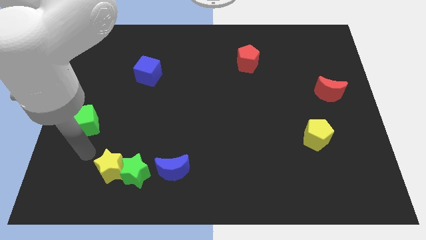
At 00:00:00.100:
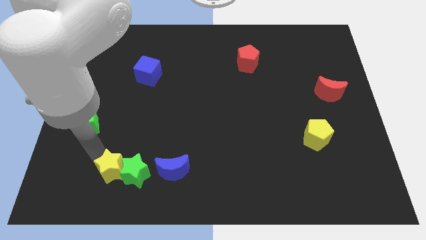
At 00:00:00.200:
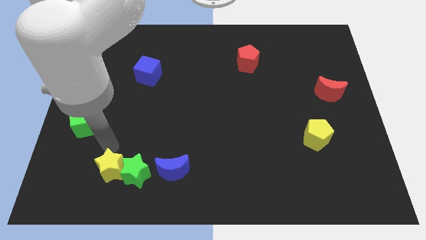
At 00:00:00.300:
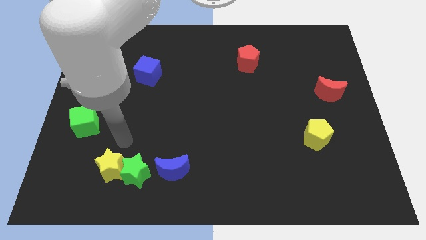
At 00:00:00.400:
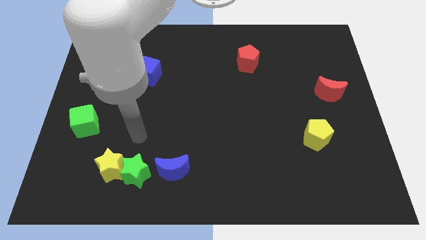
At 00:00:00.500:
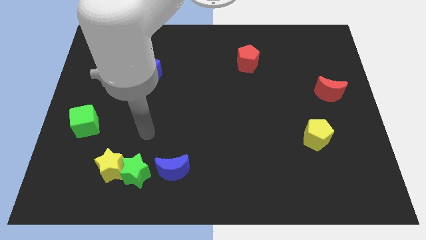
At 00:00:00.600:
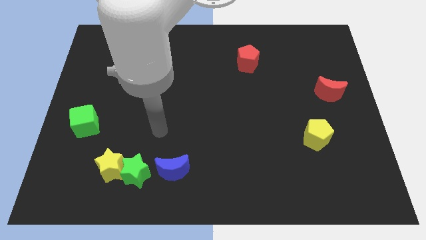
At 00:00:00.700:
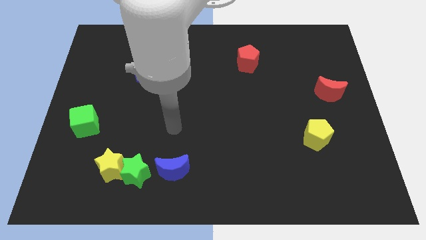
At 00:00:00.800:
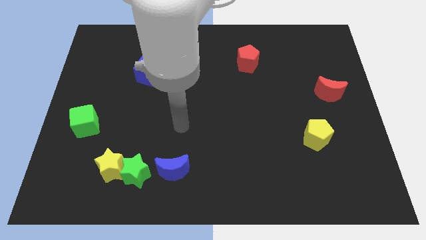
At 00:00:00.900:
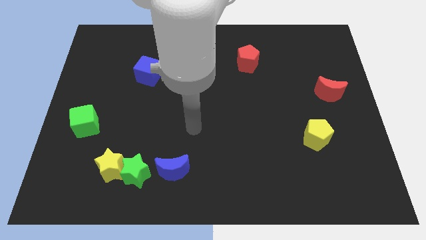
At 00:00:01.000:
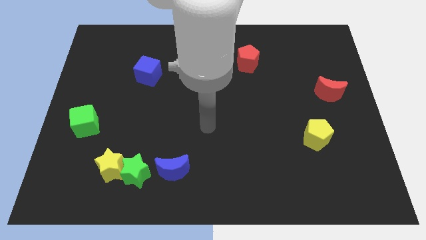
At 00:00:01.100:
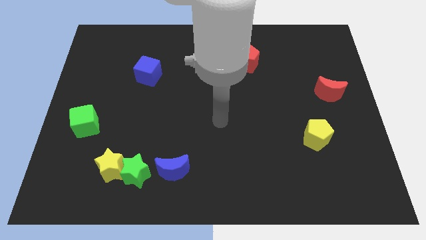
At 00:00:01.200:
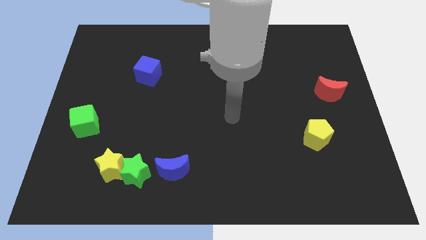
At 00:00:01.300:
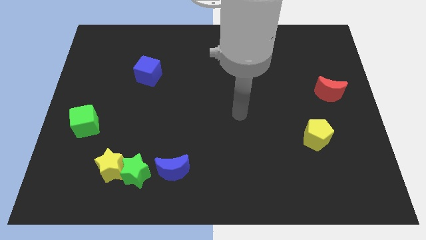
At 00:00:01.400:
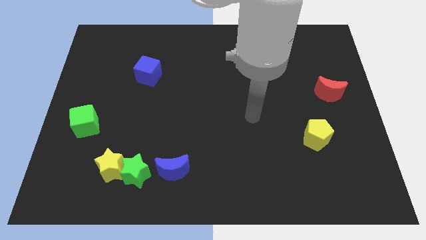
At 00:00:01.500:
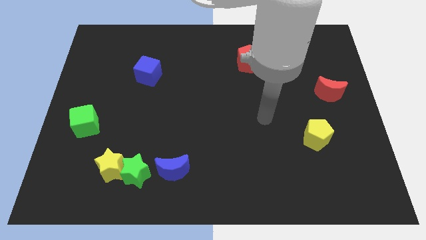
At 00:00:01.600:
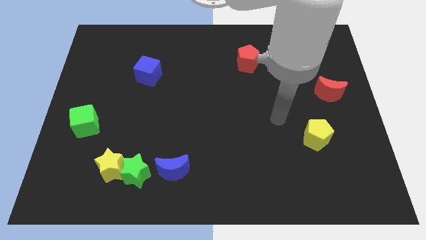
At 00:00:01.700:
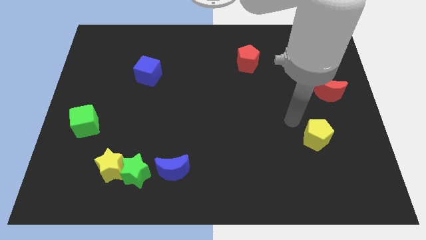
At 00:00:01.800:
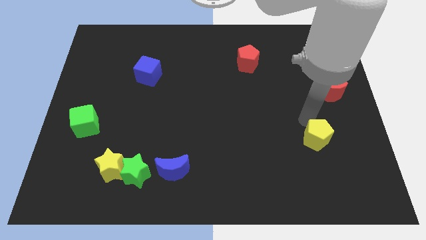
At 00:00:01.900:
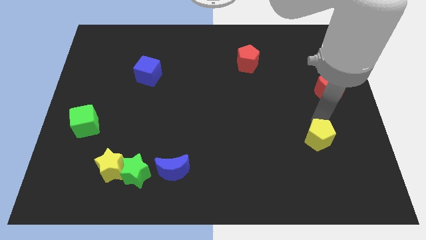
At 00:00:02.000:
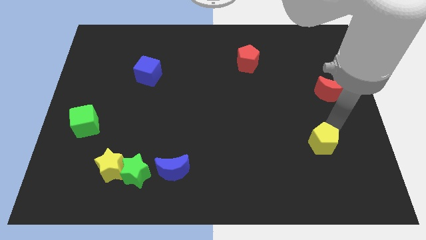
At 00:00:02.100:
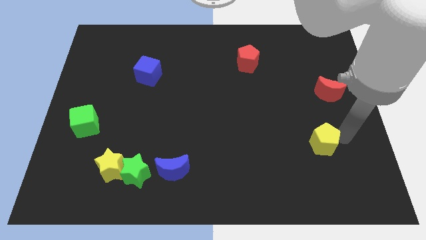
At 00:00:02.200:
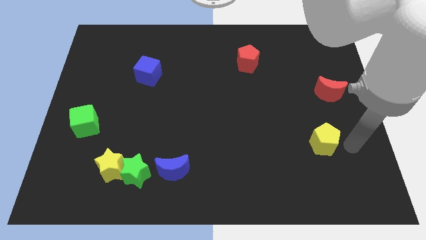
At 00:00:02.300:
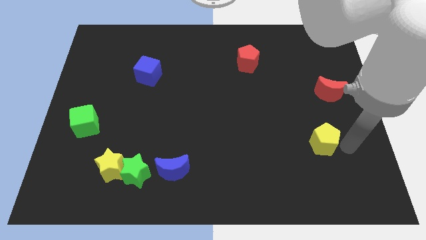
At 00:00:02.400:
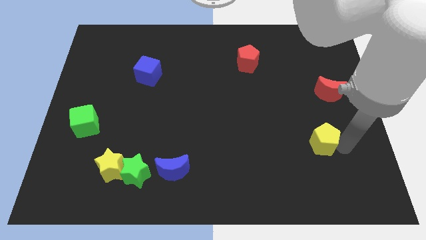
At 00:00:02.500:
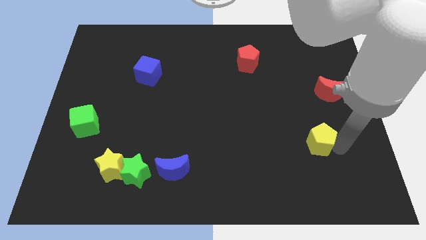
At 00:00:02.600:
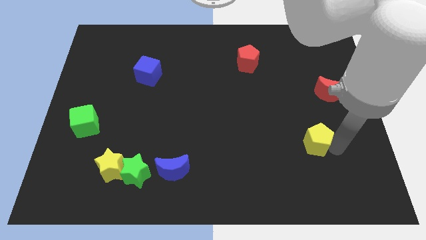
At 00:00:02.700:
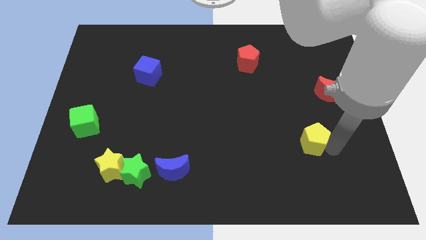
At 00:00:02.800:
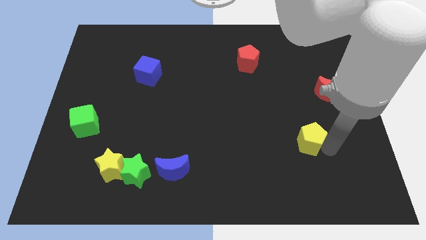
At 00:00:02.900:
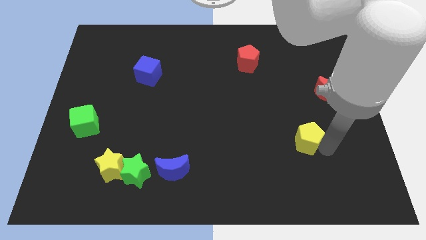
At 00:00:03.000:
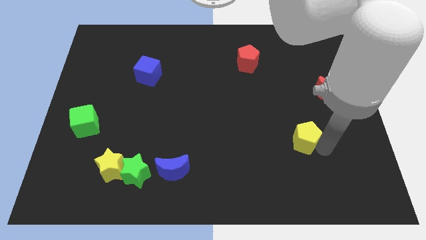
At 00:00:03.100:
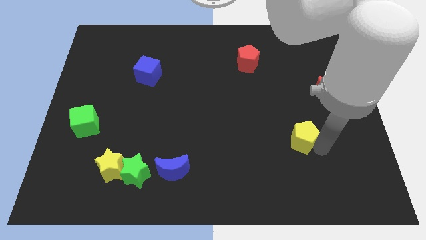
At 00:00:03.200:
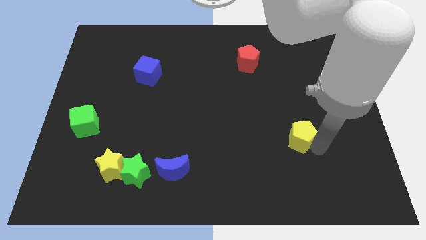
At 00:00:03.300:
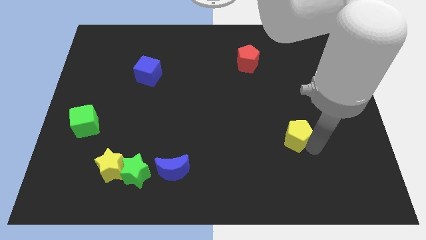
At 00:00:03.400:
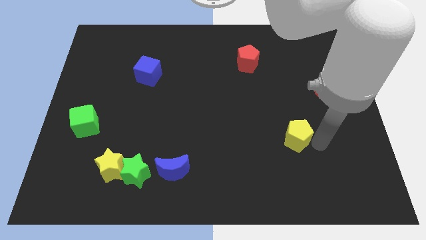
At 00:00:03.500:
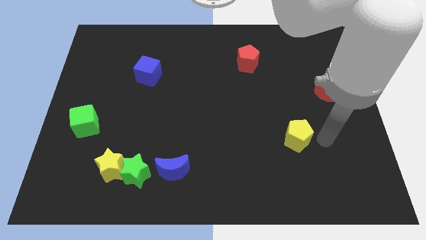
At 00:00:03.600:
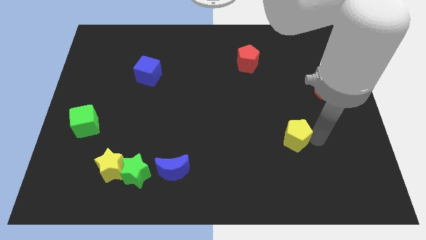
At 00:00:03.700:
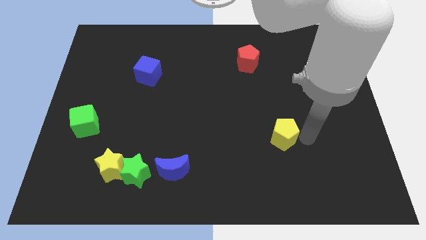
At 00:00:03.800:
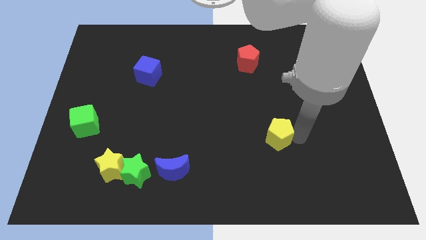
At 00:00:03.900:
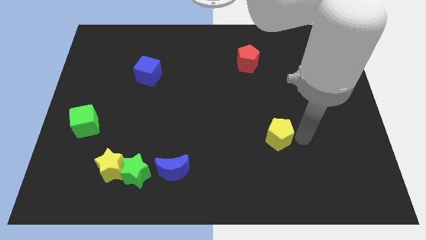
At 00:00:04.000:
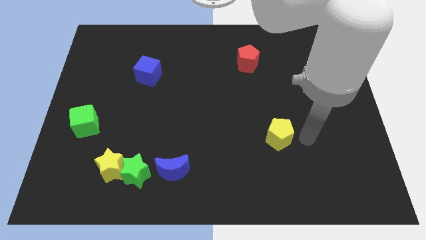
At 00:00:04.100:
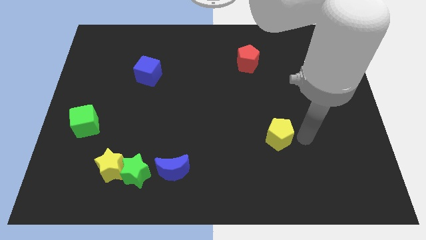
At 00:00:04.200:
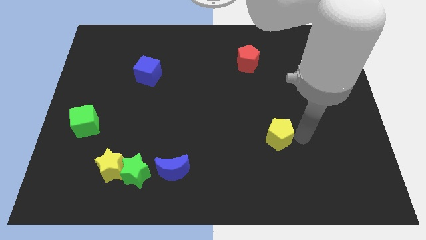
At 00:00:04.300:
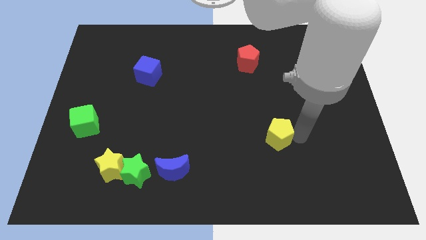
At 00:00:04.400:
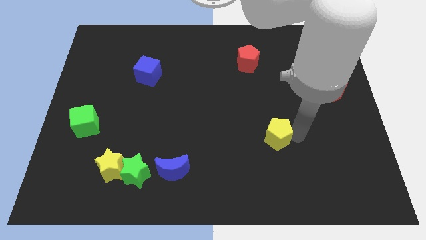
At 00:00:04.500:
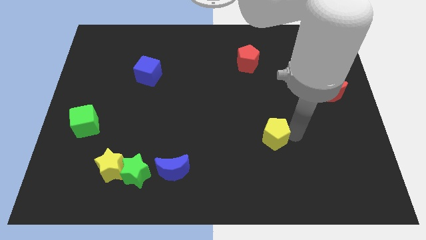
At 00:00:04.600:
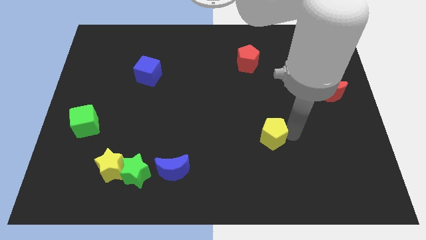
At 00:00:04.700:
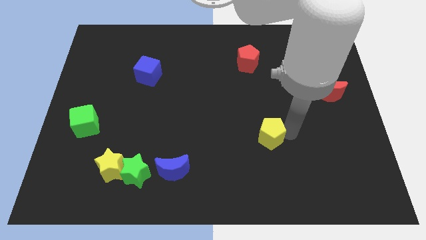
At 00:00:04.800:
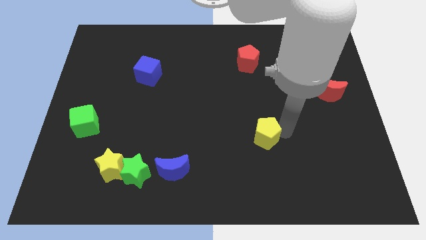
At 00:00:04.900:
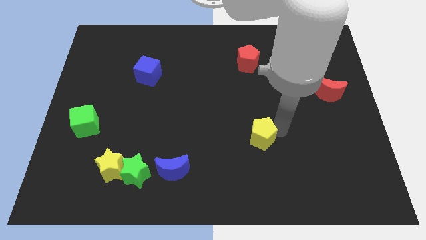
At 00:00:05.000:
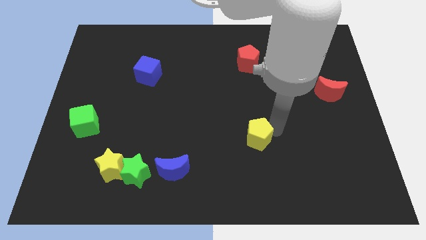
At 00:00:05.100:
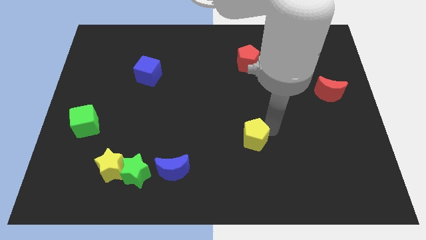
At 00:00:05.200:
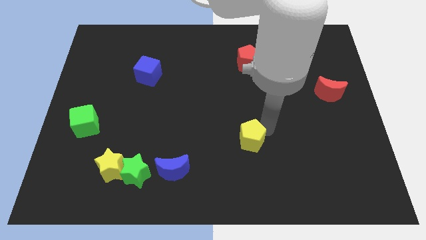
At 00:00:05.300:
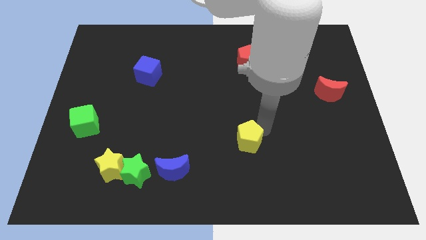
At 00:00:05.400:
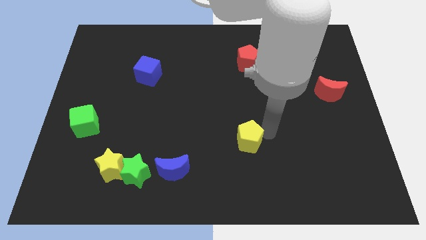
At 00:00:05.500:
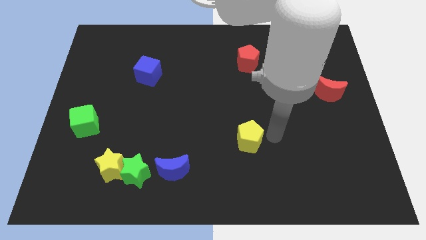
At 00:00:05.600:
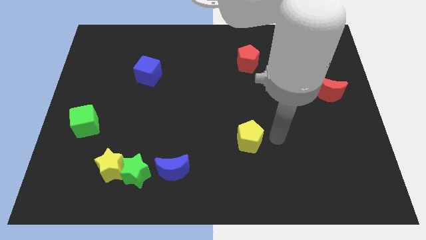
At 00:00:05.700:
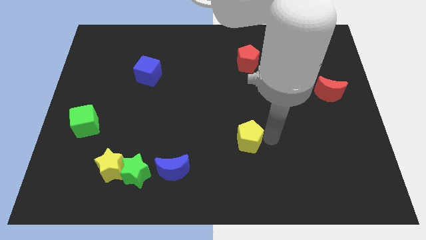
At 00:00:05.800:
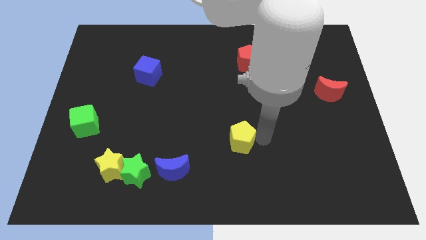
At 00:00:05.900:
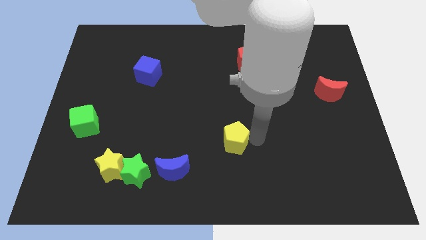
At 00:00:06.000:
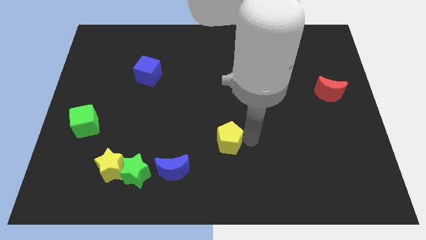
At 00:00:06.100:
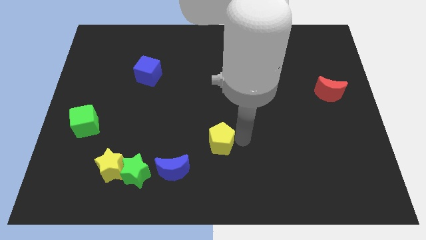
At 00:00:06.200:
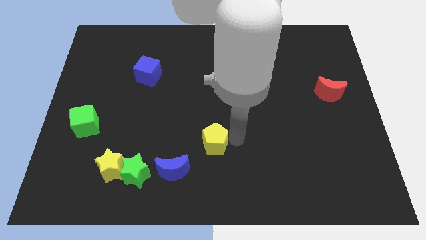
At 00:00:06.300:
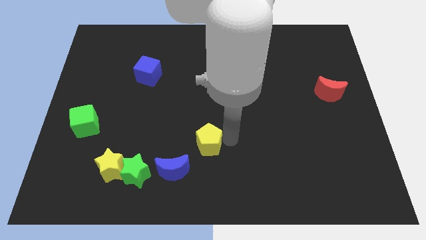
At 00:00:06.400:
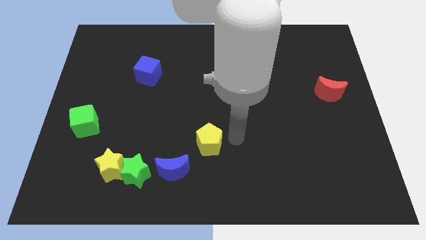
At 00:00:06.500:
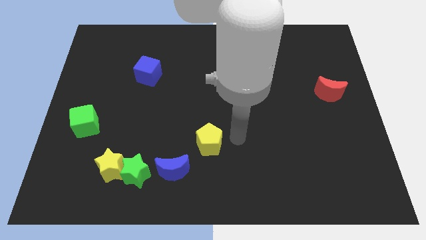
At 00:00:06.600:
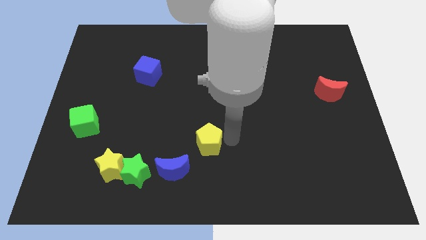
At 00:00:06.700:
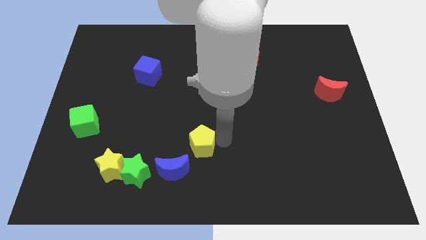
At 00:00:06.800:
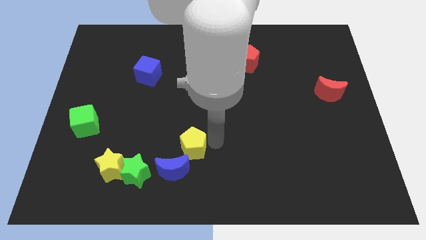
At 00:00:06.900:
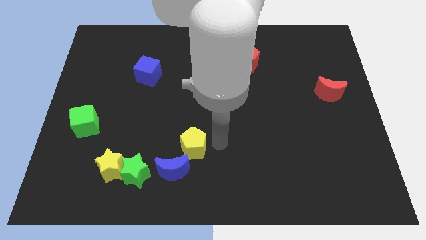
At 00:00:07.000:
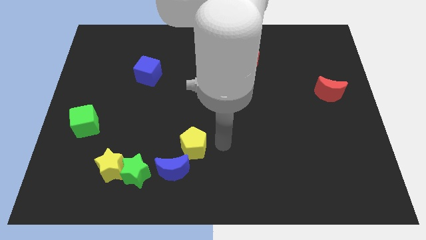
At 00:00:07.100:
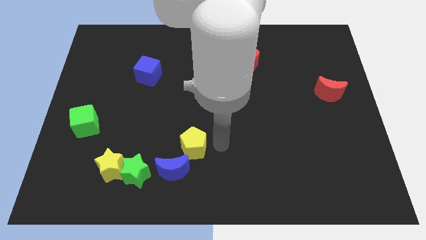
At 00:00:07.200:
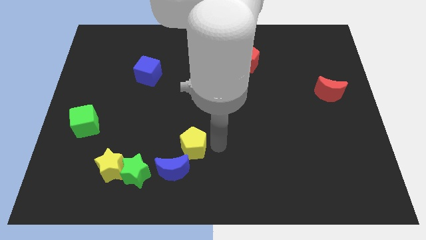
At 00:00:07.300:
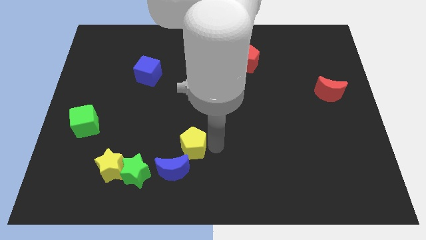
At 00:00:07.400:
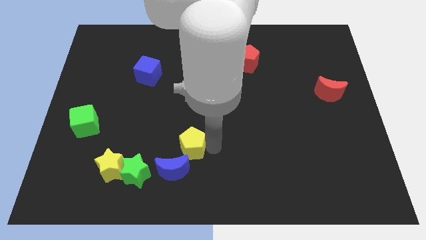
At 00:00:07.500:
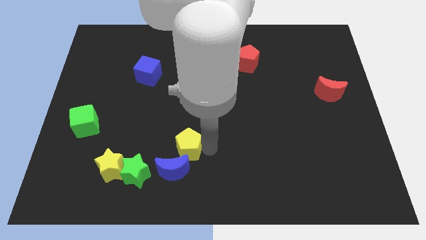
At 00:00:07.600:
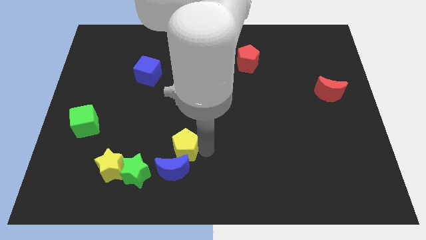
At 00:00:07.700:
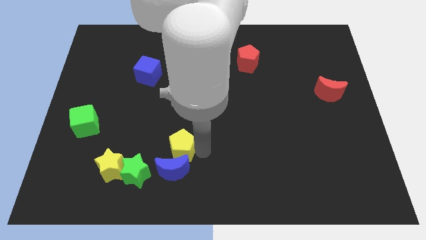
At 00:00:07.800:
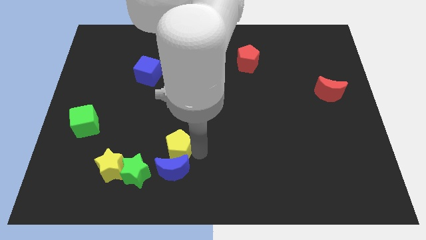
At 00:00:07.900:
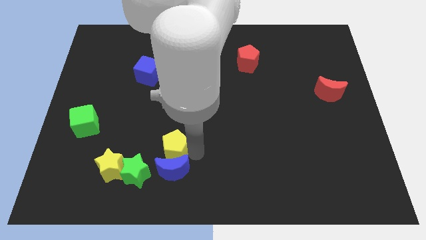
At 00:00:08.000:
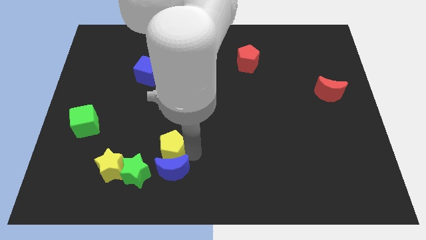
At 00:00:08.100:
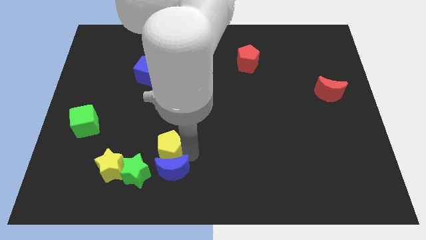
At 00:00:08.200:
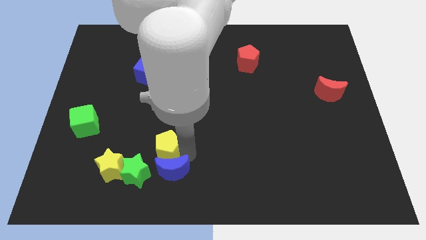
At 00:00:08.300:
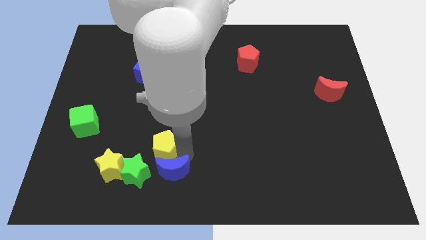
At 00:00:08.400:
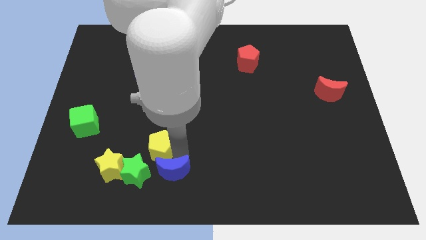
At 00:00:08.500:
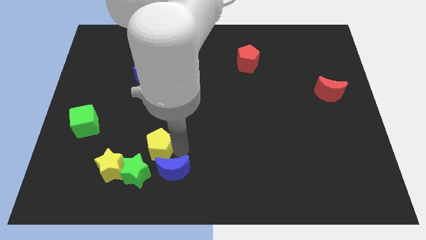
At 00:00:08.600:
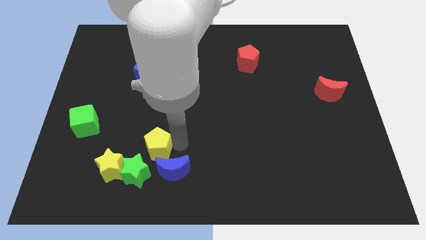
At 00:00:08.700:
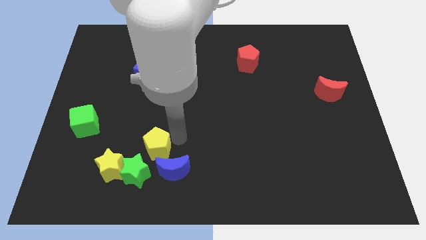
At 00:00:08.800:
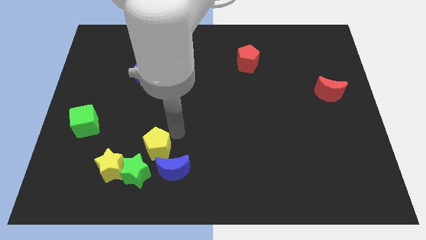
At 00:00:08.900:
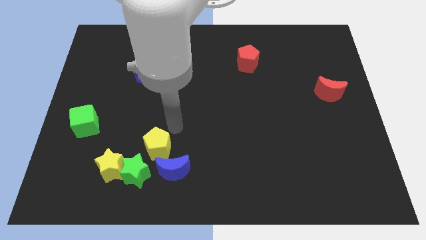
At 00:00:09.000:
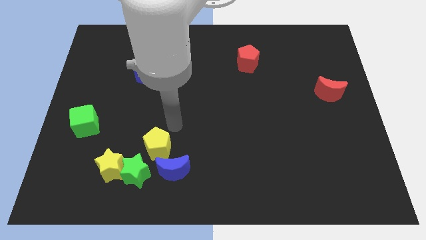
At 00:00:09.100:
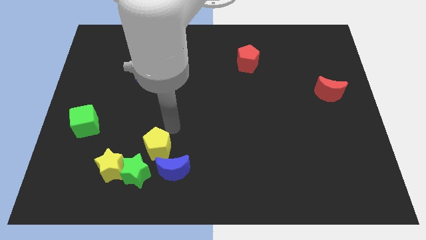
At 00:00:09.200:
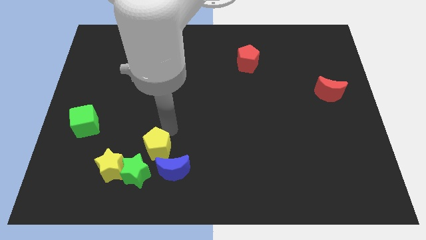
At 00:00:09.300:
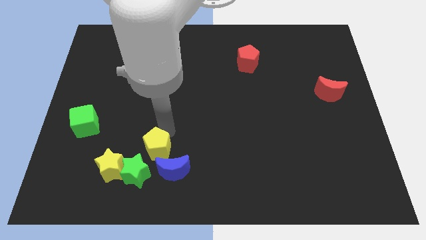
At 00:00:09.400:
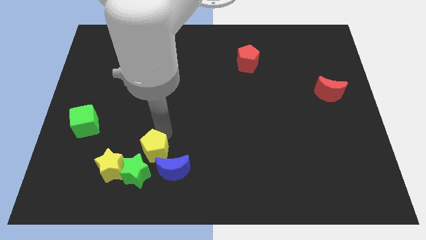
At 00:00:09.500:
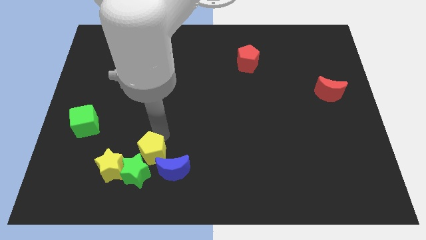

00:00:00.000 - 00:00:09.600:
slide the yellow pentagon next to the green star
